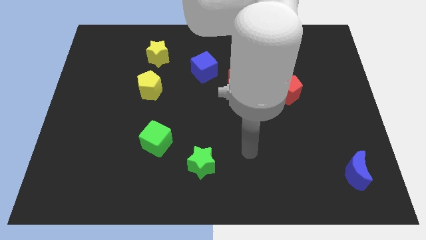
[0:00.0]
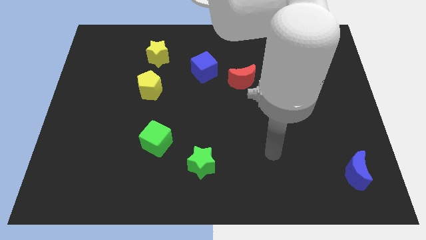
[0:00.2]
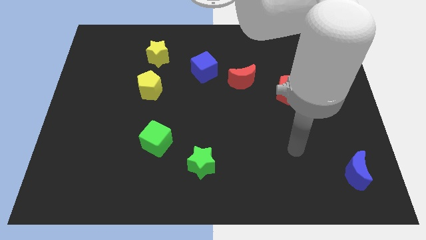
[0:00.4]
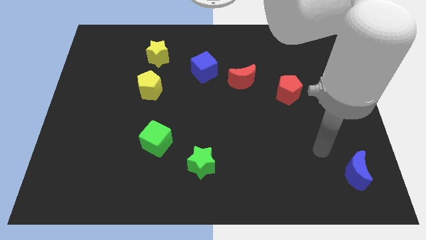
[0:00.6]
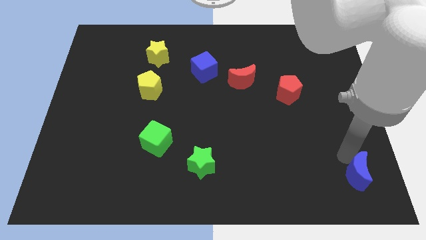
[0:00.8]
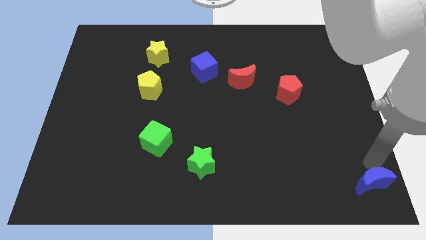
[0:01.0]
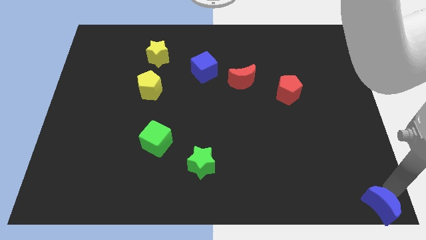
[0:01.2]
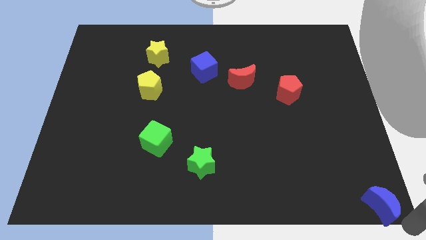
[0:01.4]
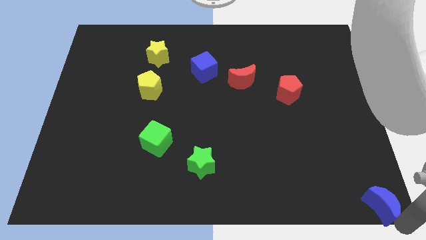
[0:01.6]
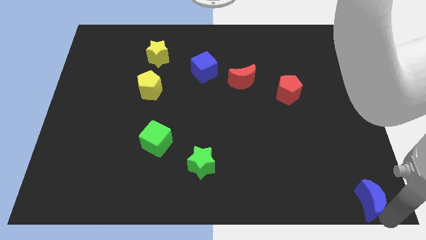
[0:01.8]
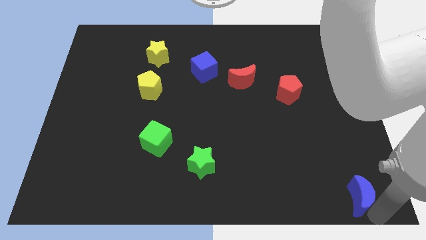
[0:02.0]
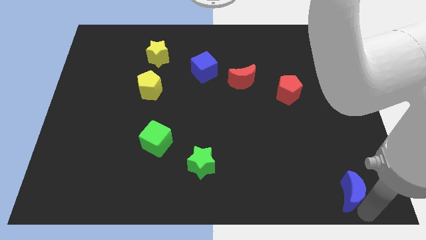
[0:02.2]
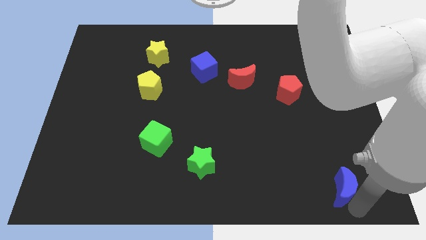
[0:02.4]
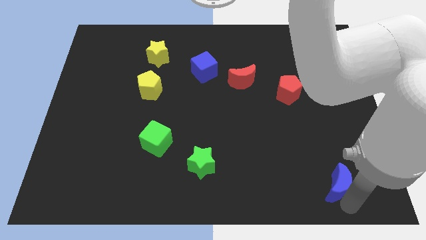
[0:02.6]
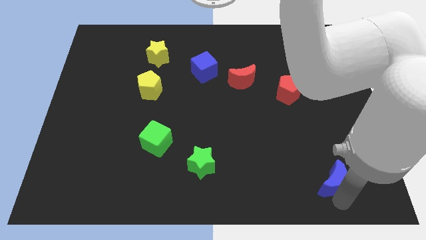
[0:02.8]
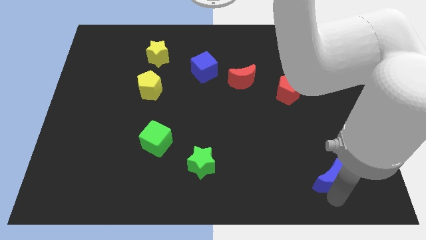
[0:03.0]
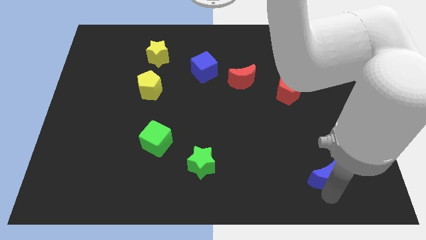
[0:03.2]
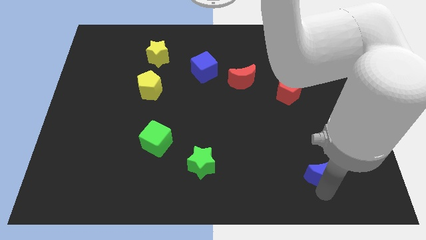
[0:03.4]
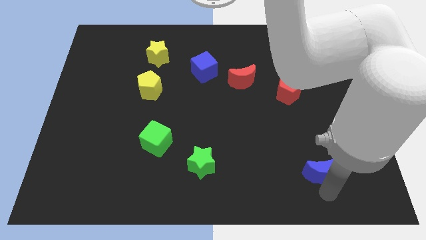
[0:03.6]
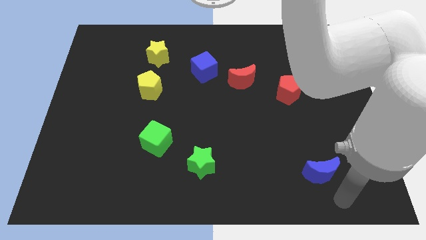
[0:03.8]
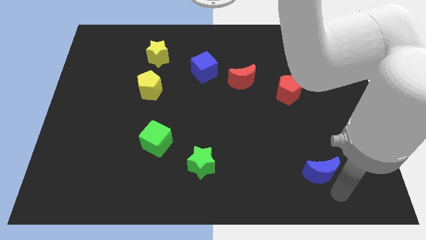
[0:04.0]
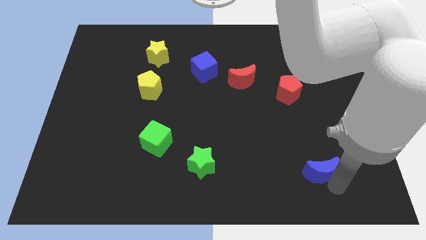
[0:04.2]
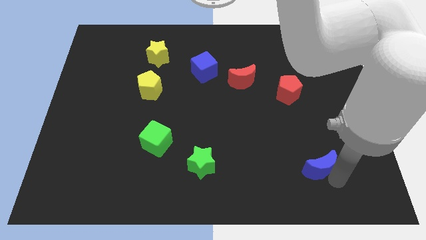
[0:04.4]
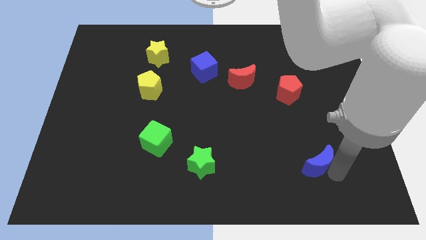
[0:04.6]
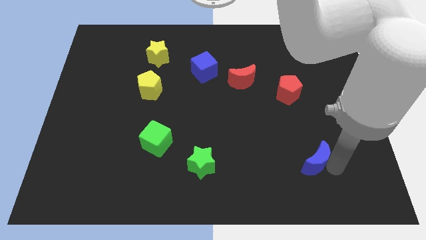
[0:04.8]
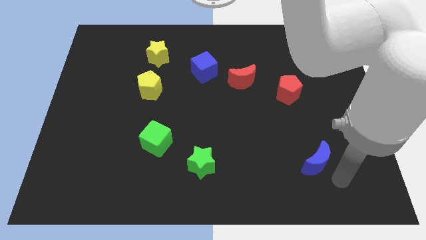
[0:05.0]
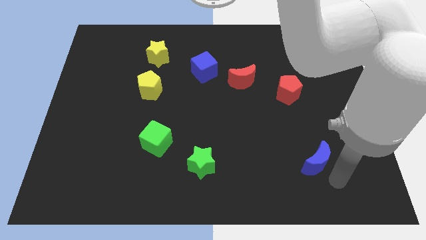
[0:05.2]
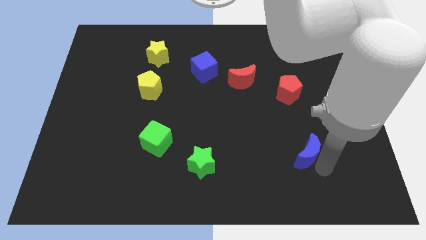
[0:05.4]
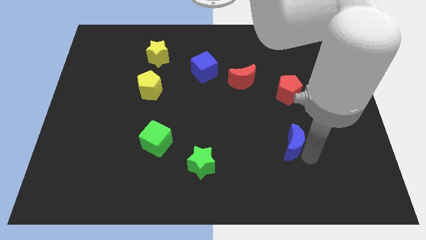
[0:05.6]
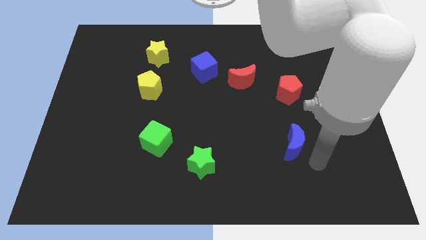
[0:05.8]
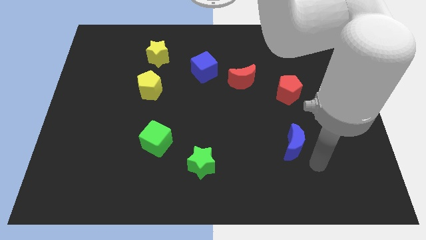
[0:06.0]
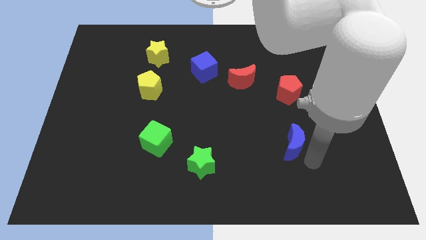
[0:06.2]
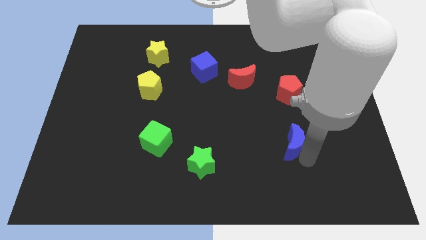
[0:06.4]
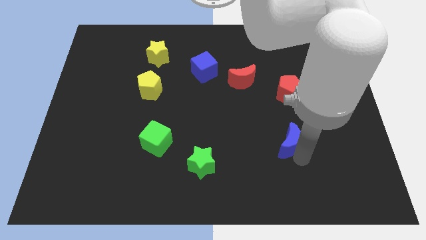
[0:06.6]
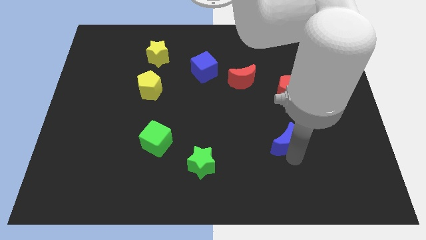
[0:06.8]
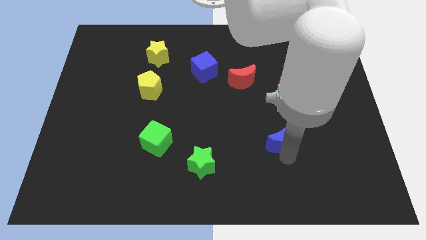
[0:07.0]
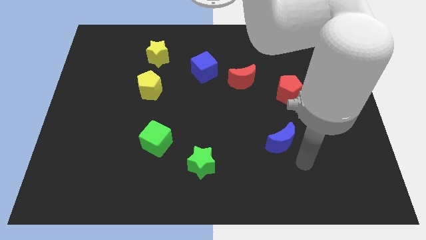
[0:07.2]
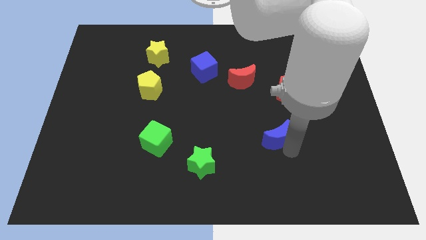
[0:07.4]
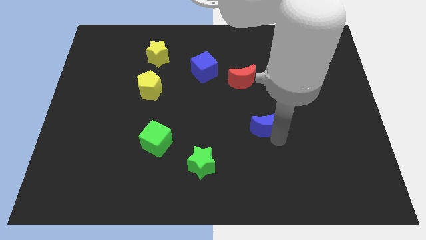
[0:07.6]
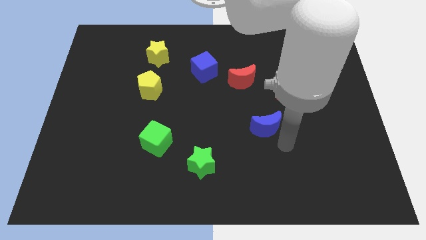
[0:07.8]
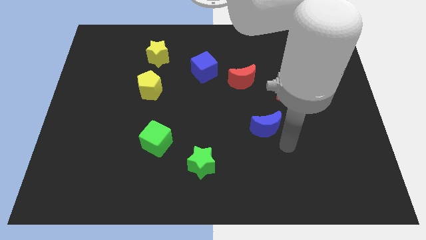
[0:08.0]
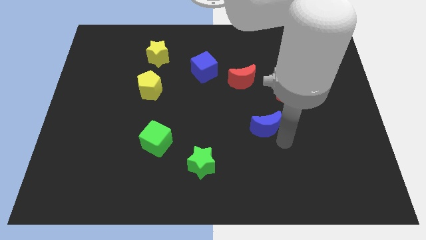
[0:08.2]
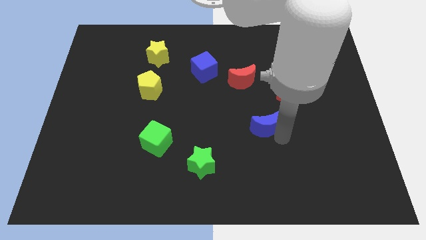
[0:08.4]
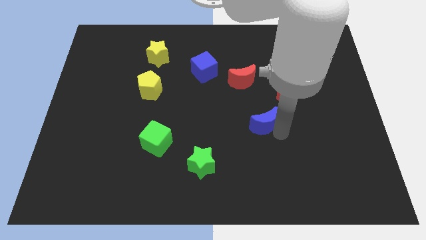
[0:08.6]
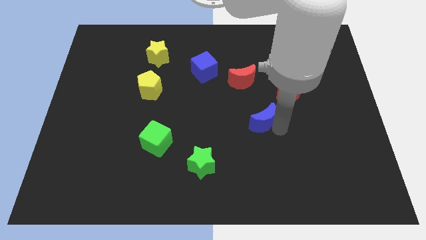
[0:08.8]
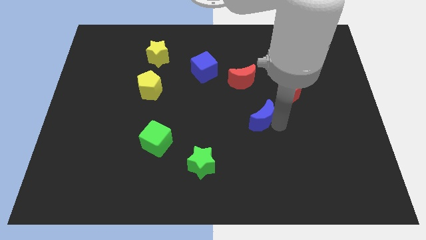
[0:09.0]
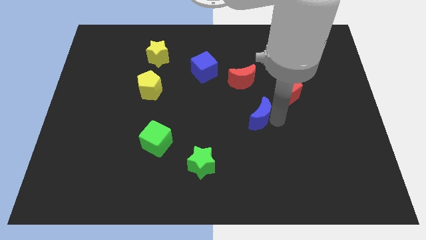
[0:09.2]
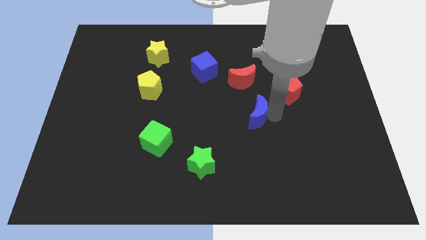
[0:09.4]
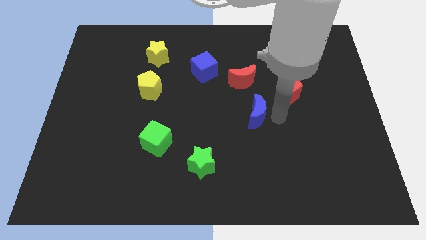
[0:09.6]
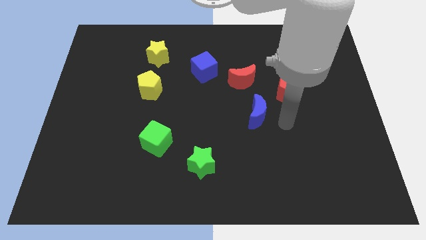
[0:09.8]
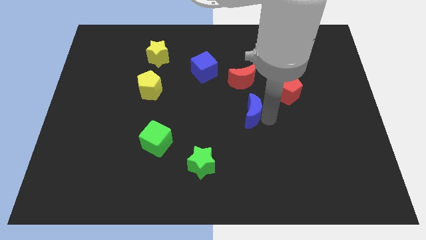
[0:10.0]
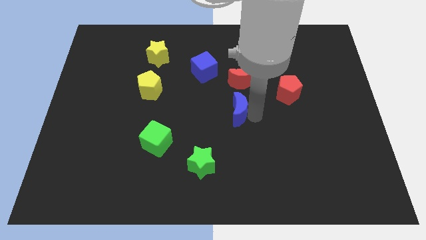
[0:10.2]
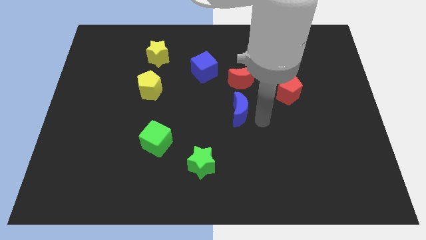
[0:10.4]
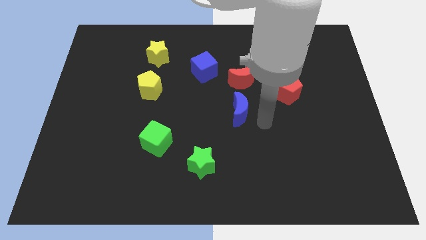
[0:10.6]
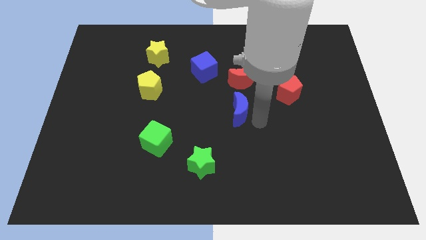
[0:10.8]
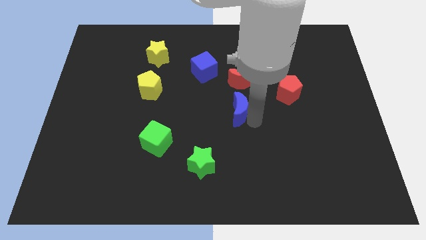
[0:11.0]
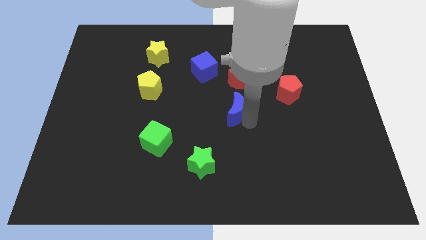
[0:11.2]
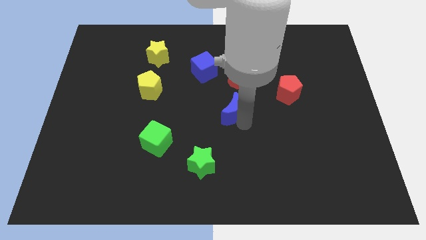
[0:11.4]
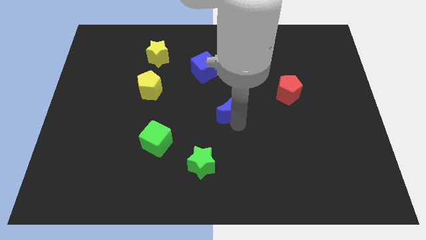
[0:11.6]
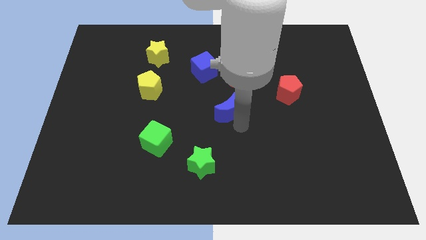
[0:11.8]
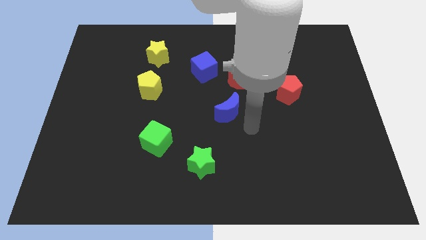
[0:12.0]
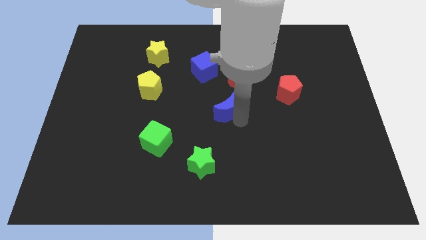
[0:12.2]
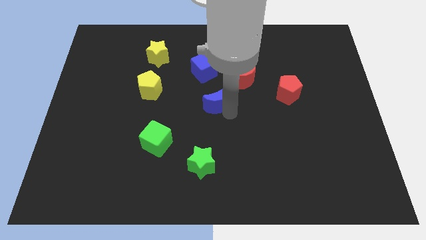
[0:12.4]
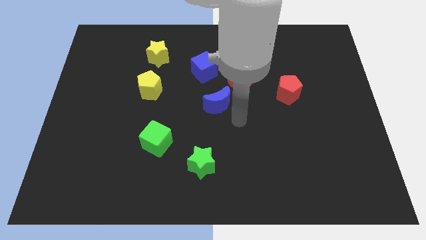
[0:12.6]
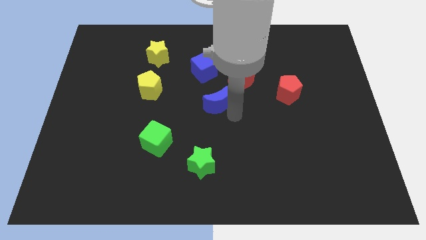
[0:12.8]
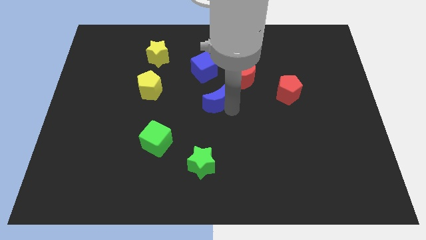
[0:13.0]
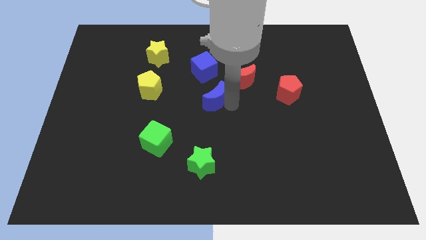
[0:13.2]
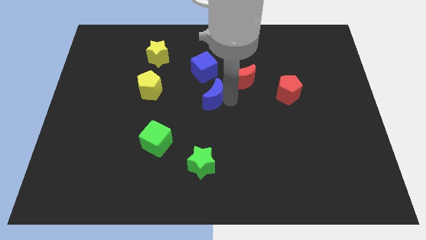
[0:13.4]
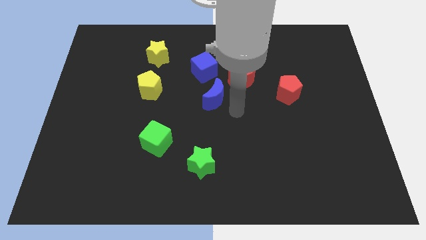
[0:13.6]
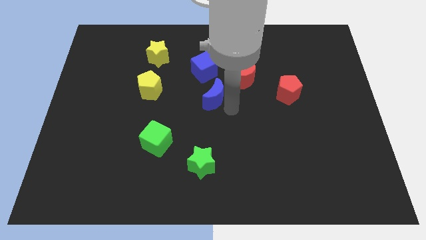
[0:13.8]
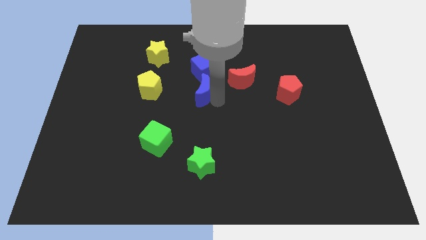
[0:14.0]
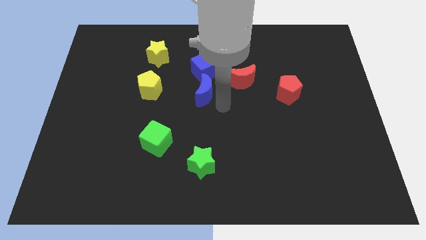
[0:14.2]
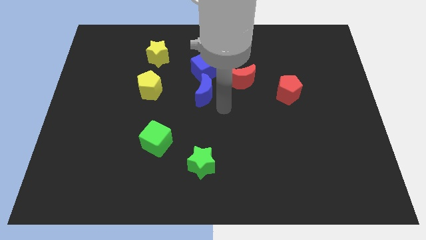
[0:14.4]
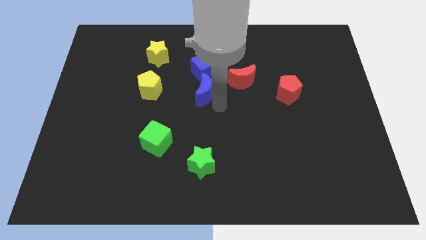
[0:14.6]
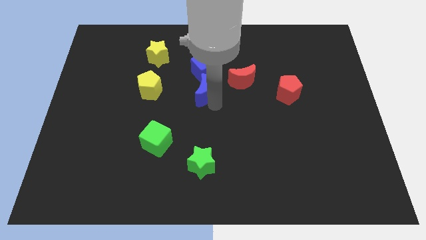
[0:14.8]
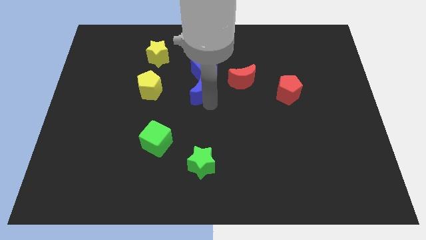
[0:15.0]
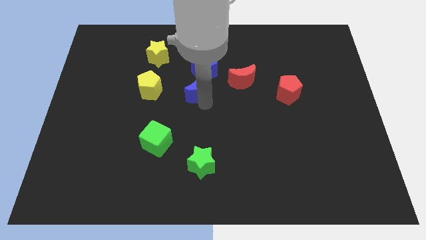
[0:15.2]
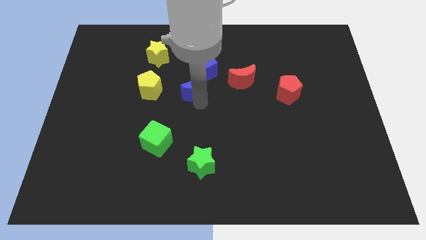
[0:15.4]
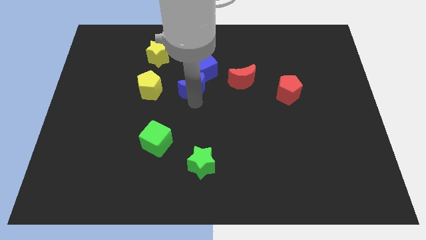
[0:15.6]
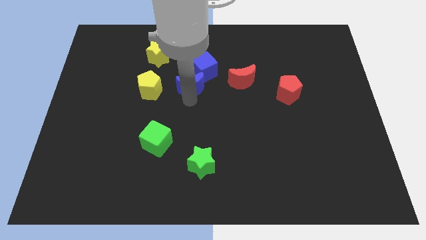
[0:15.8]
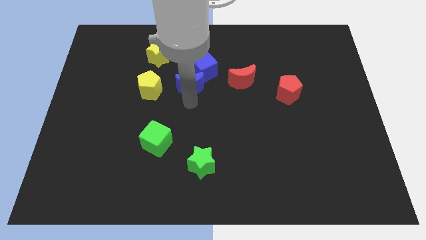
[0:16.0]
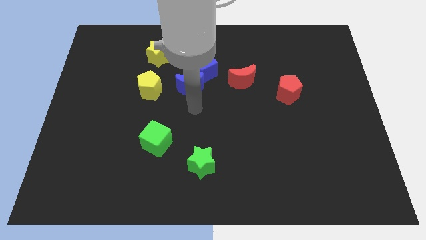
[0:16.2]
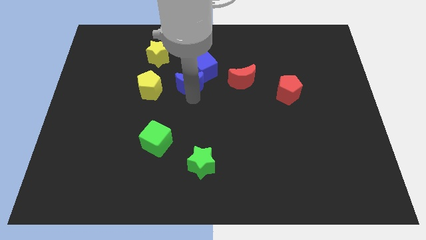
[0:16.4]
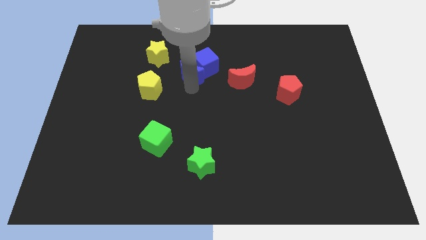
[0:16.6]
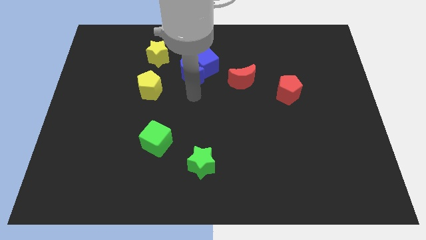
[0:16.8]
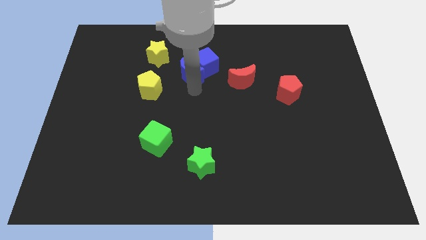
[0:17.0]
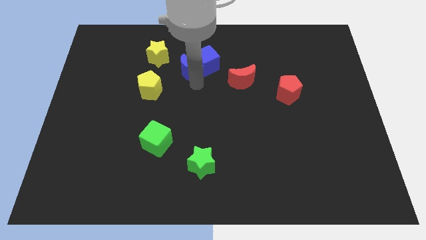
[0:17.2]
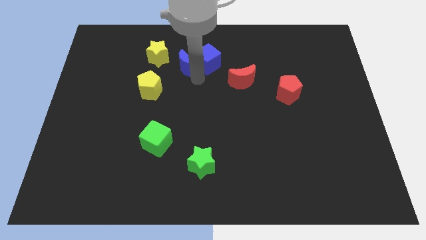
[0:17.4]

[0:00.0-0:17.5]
push the blue moon to the top left of the blue cube
